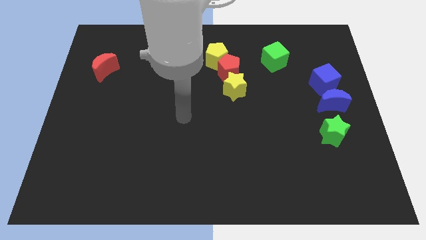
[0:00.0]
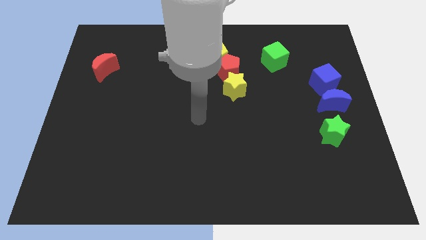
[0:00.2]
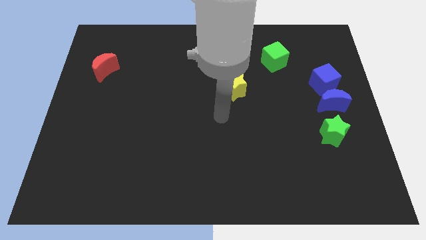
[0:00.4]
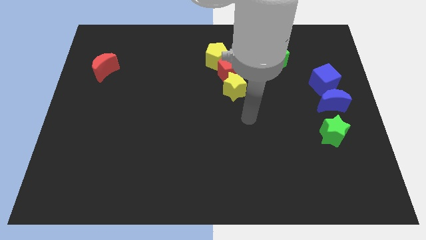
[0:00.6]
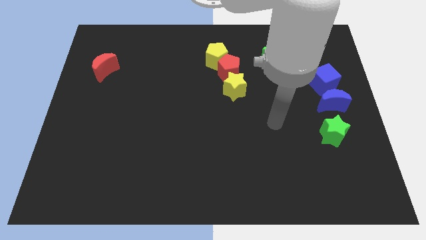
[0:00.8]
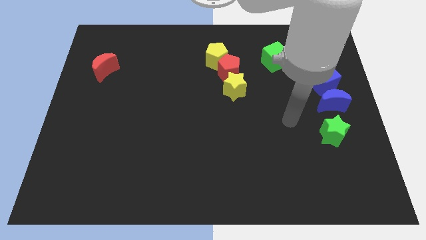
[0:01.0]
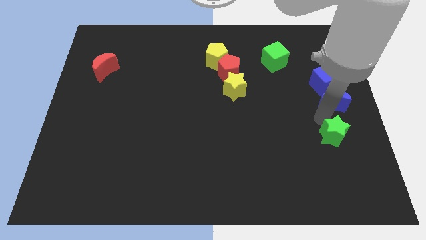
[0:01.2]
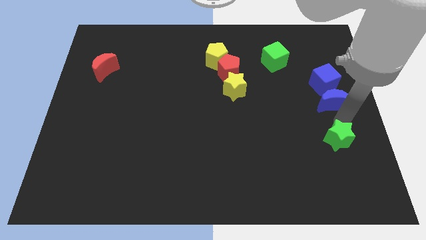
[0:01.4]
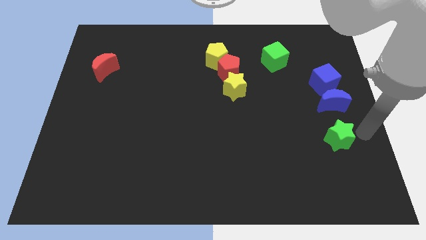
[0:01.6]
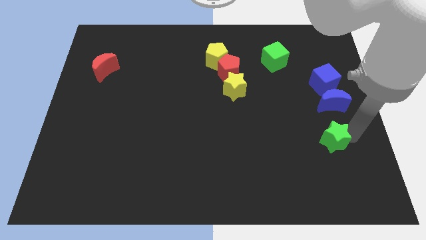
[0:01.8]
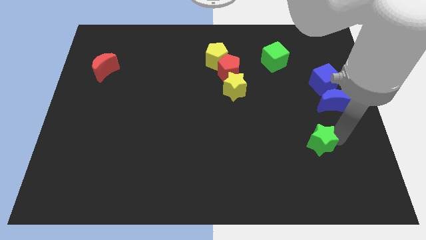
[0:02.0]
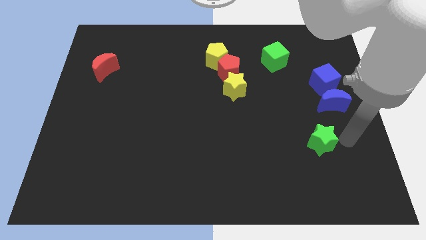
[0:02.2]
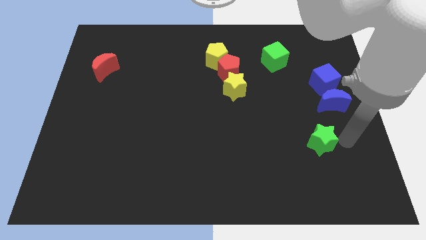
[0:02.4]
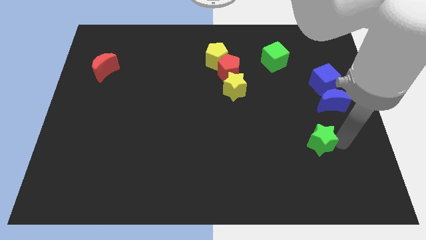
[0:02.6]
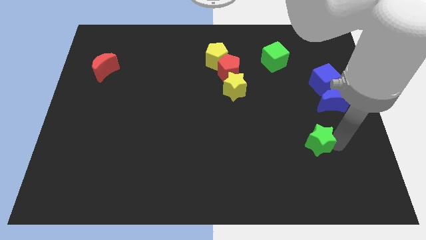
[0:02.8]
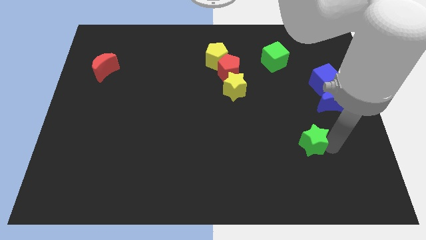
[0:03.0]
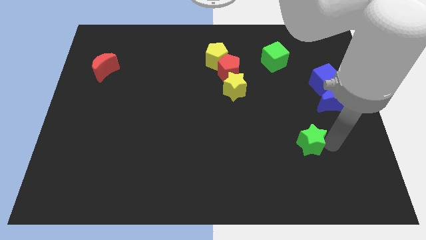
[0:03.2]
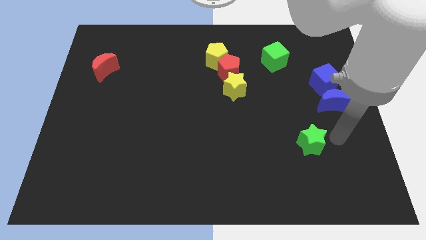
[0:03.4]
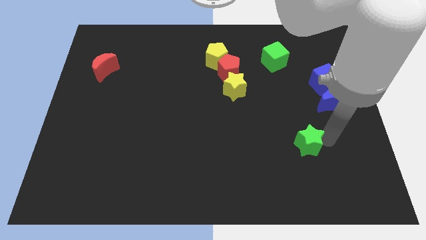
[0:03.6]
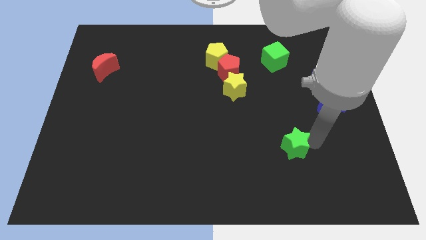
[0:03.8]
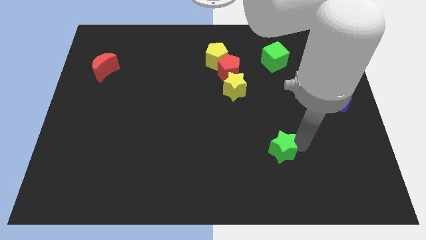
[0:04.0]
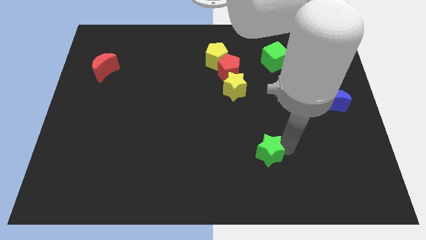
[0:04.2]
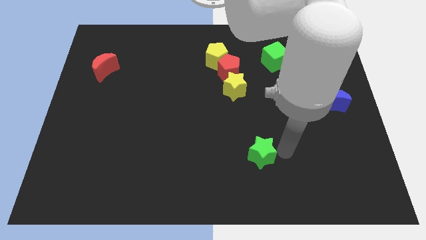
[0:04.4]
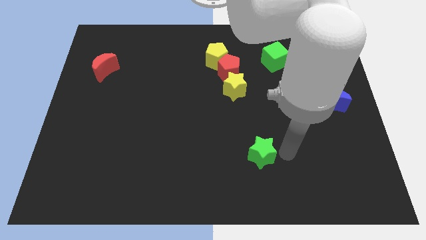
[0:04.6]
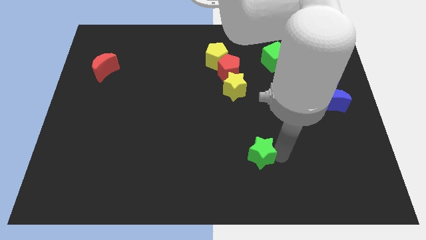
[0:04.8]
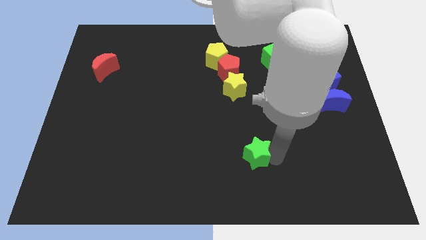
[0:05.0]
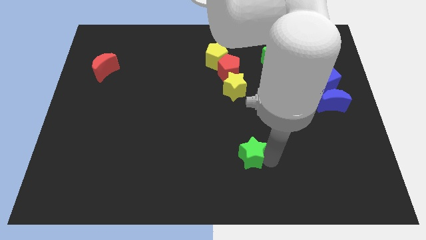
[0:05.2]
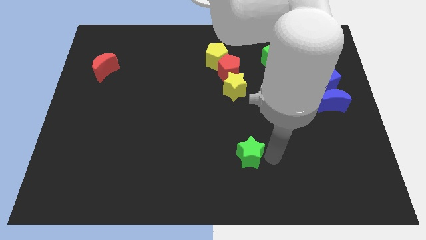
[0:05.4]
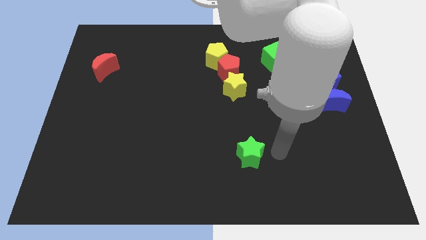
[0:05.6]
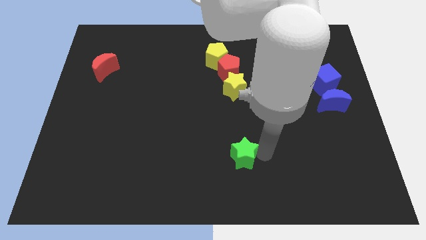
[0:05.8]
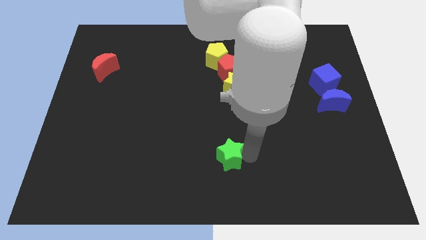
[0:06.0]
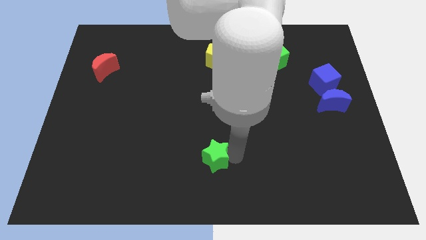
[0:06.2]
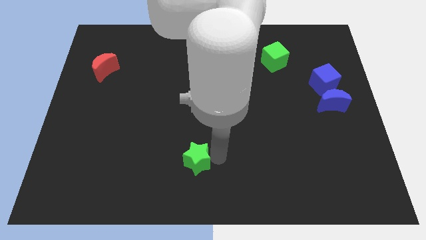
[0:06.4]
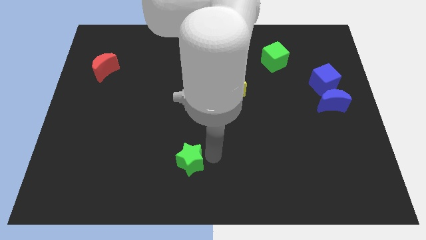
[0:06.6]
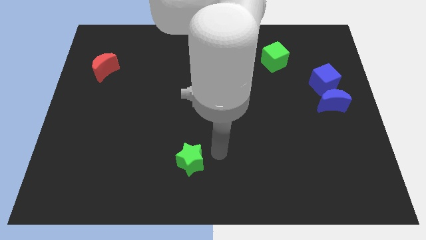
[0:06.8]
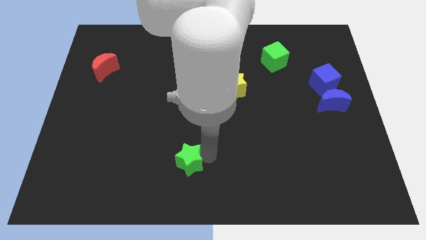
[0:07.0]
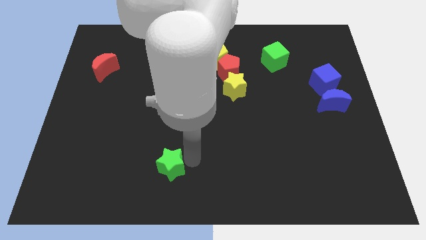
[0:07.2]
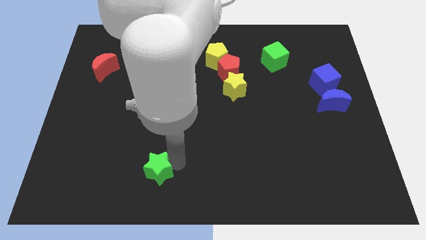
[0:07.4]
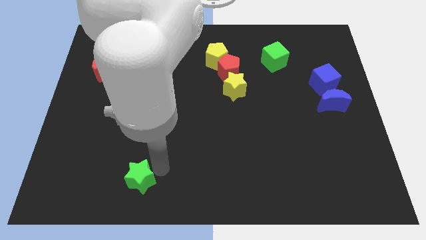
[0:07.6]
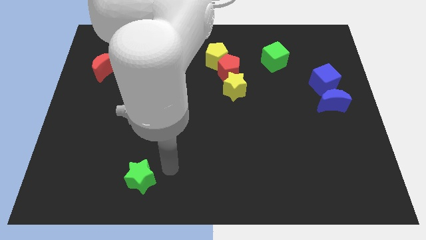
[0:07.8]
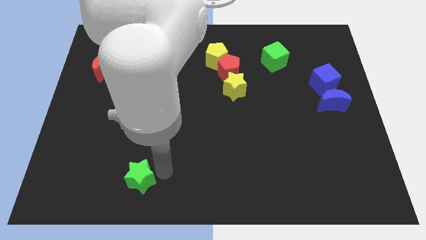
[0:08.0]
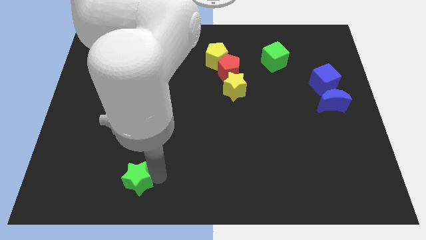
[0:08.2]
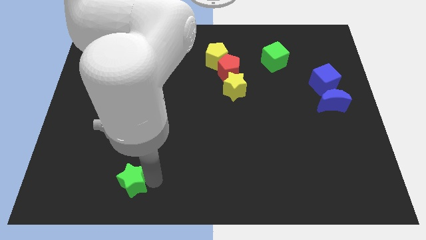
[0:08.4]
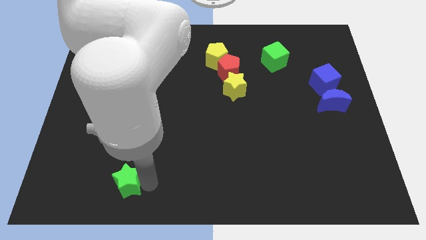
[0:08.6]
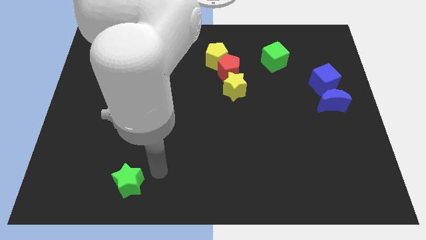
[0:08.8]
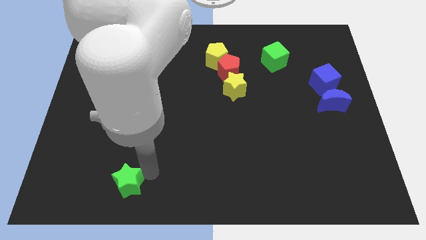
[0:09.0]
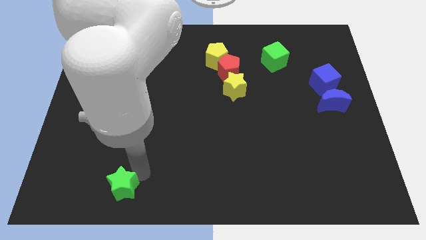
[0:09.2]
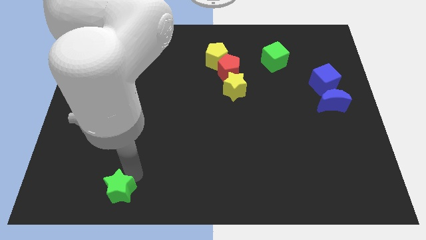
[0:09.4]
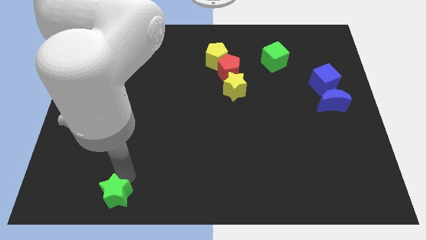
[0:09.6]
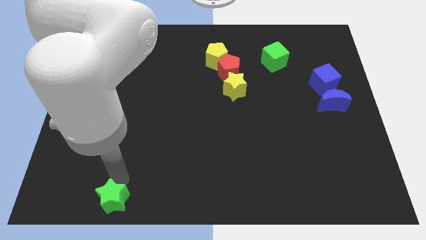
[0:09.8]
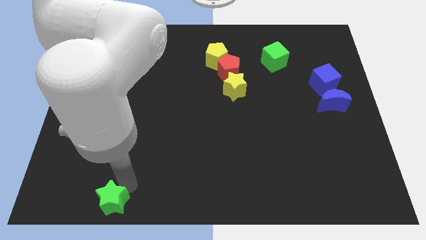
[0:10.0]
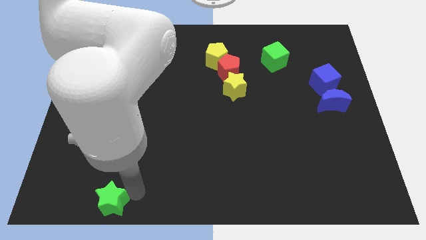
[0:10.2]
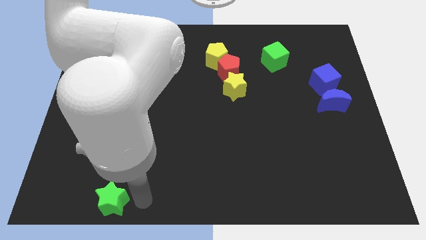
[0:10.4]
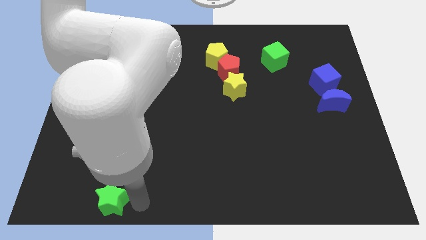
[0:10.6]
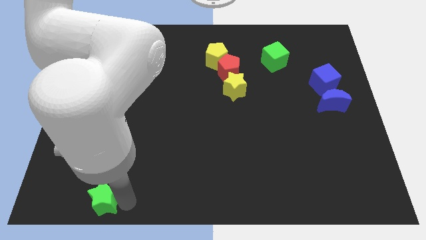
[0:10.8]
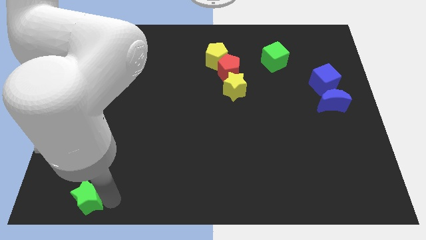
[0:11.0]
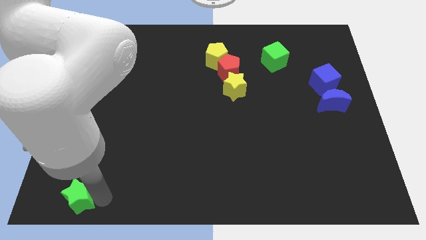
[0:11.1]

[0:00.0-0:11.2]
move the green star to the bottom left corner

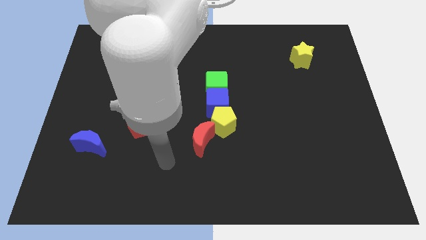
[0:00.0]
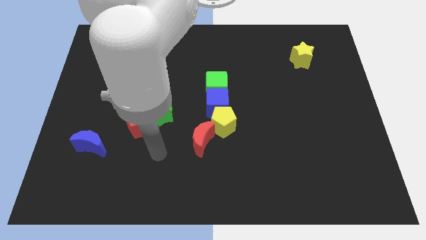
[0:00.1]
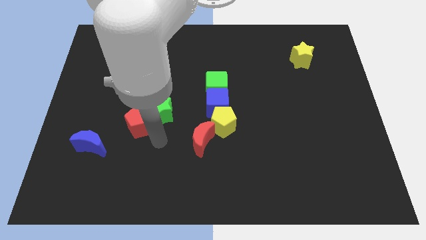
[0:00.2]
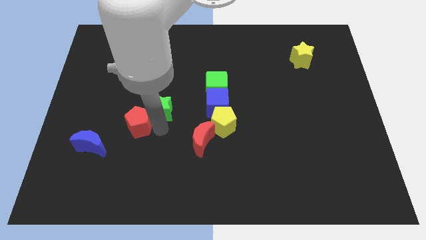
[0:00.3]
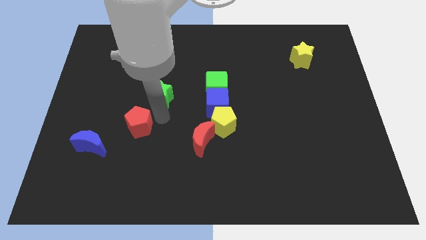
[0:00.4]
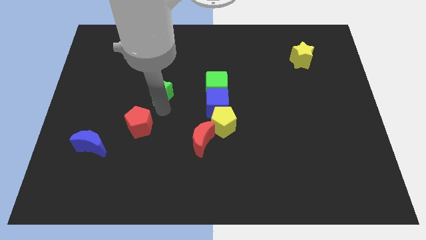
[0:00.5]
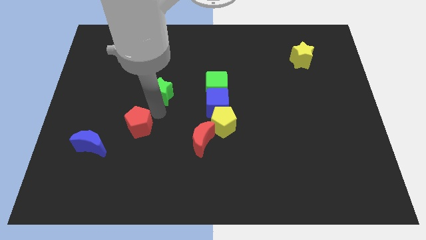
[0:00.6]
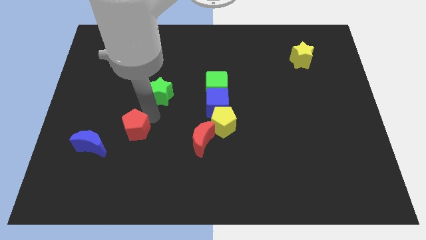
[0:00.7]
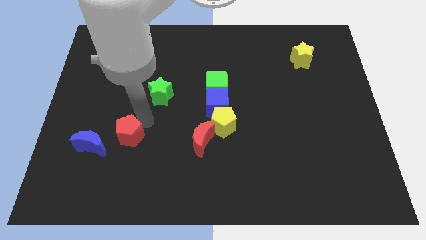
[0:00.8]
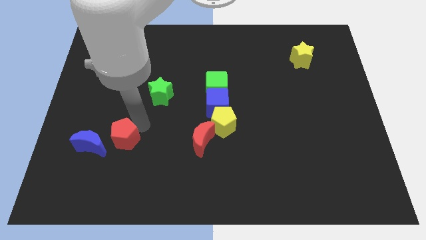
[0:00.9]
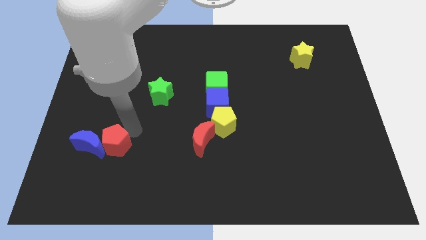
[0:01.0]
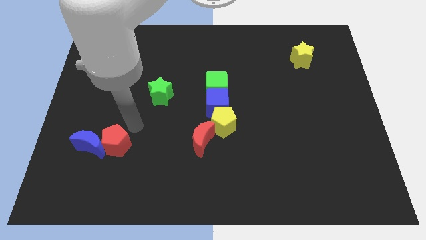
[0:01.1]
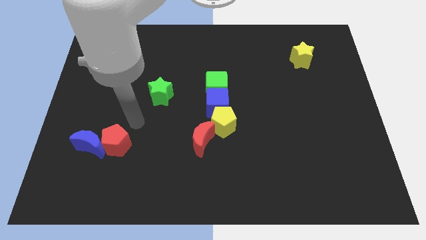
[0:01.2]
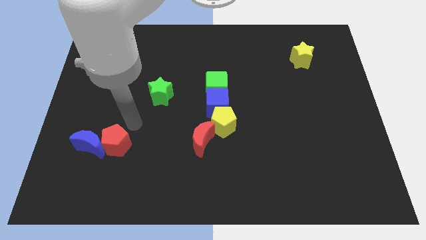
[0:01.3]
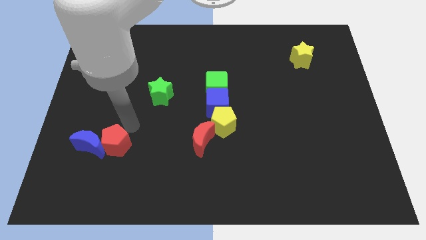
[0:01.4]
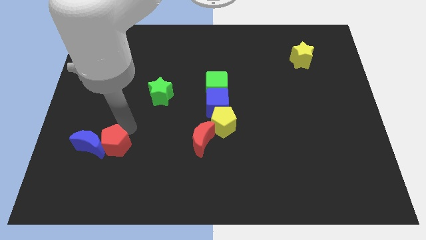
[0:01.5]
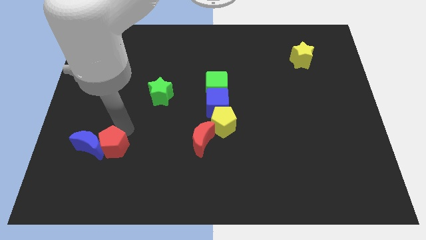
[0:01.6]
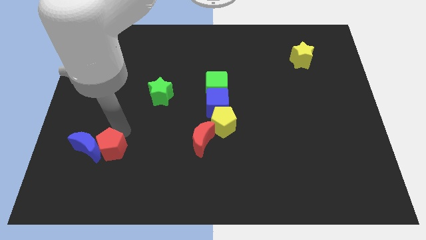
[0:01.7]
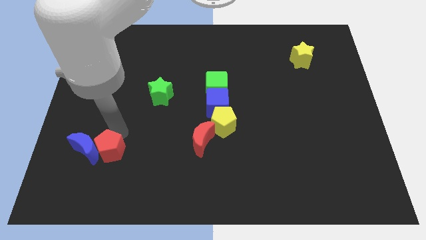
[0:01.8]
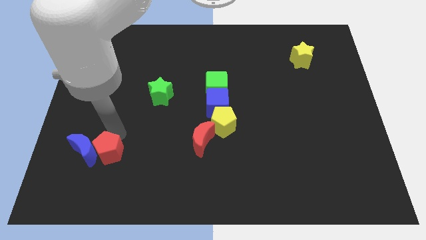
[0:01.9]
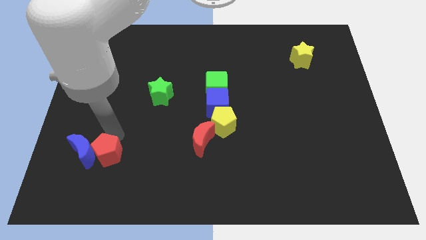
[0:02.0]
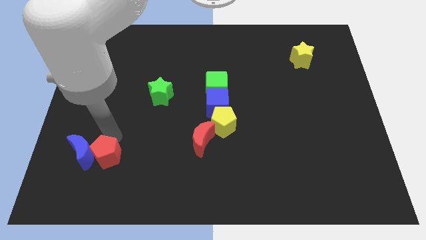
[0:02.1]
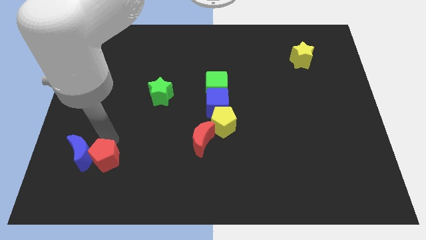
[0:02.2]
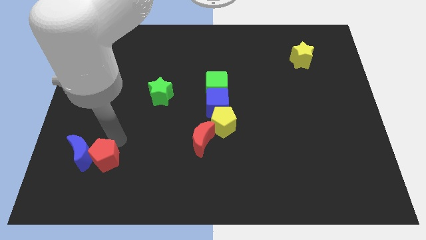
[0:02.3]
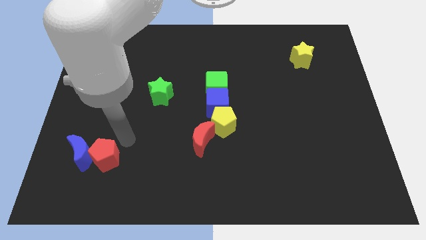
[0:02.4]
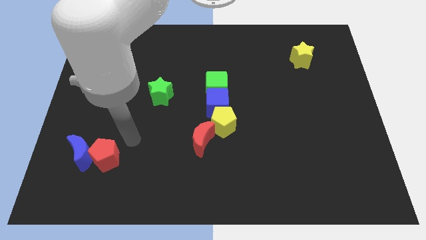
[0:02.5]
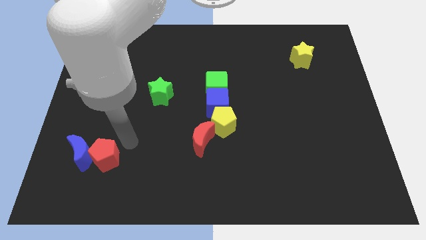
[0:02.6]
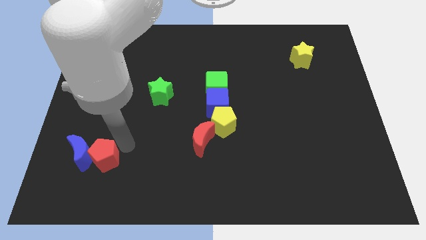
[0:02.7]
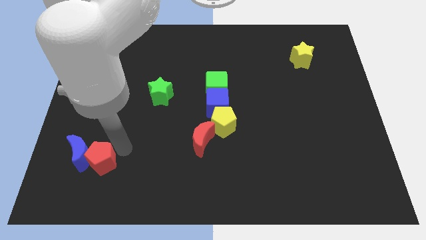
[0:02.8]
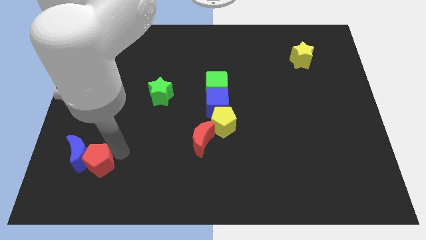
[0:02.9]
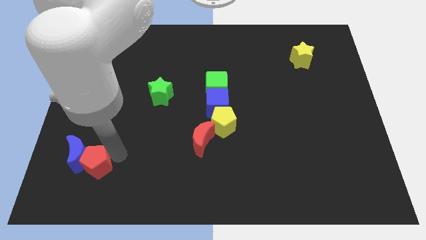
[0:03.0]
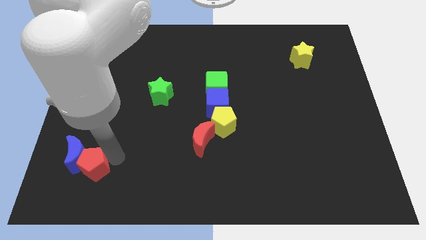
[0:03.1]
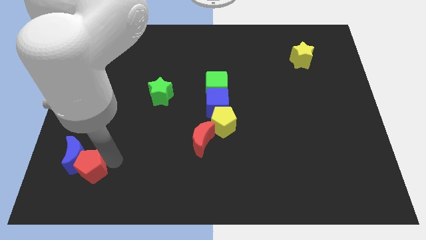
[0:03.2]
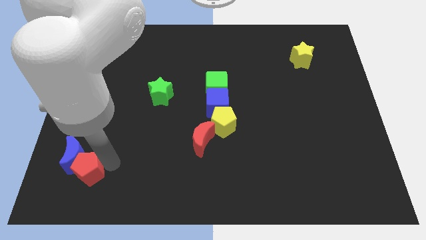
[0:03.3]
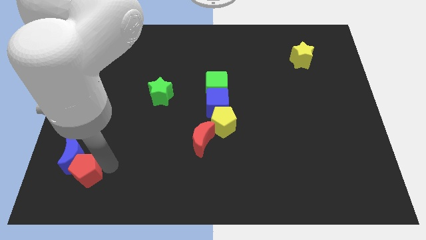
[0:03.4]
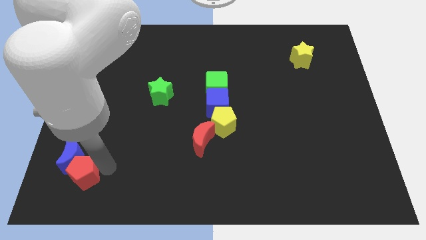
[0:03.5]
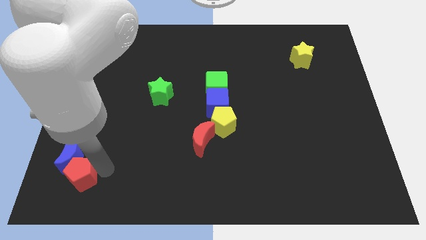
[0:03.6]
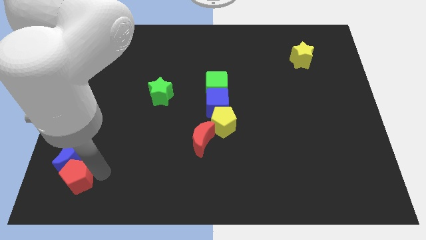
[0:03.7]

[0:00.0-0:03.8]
push the red pentagon to the bottom left
